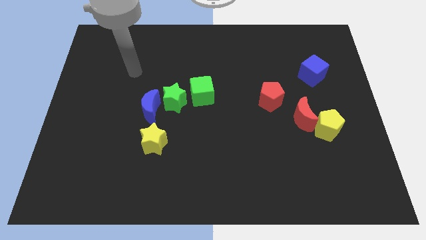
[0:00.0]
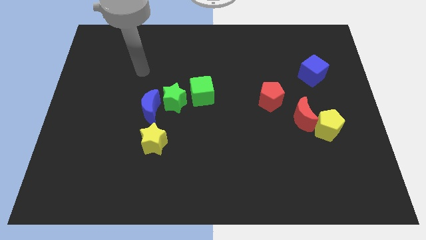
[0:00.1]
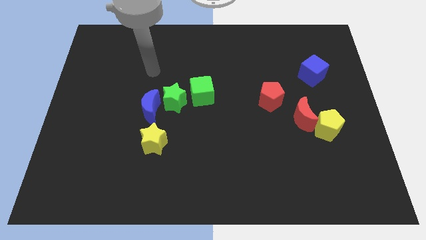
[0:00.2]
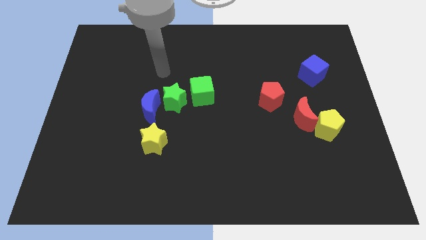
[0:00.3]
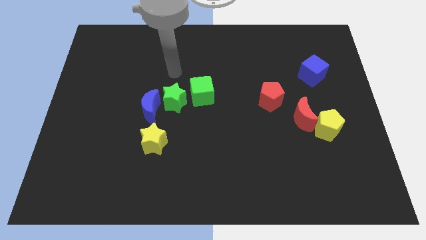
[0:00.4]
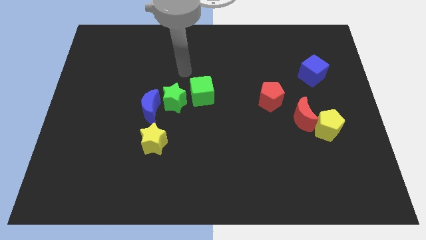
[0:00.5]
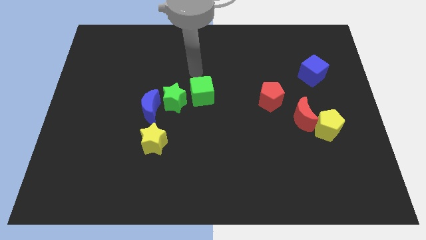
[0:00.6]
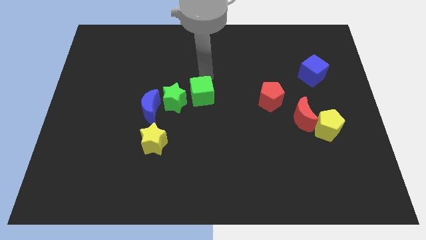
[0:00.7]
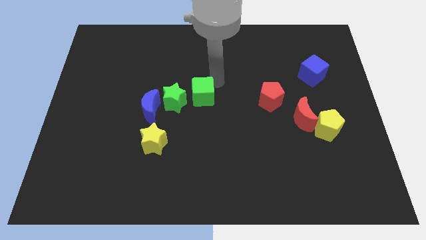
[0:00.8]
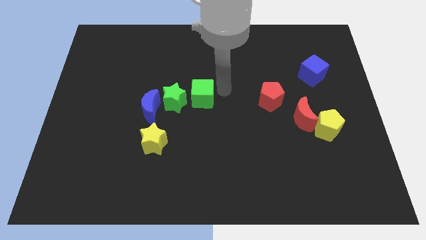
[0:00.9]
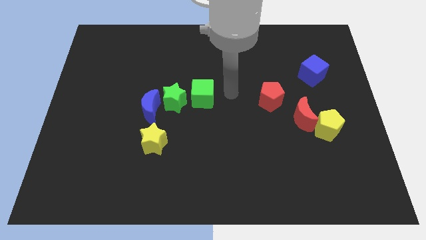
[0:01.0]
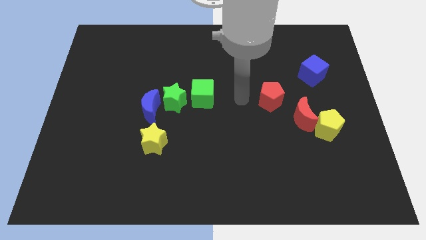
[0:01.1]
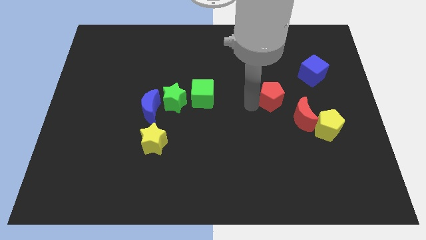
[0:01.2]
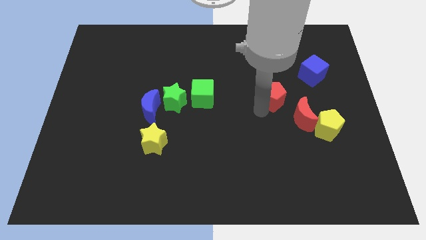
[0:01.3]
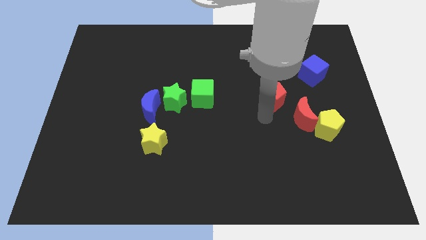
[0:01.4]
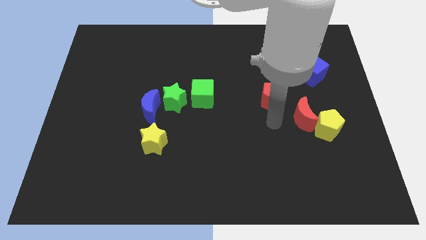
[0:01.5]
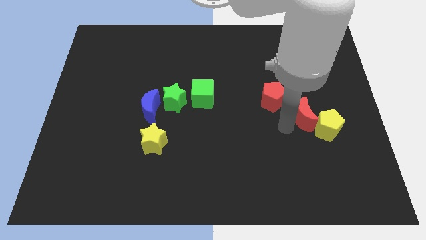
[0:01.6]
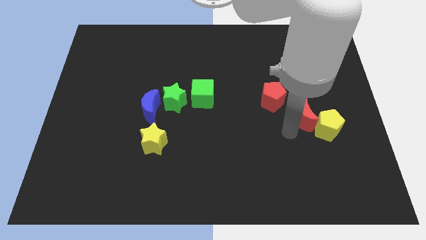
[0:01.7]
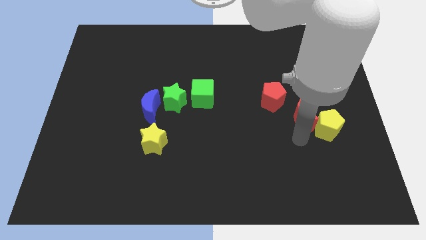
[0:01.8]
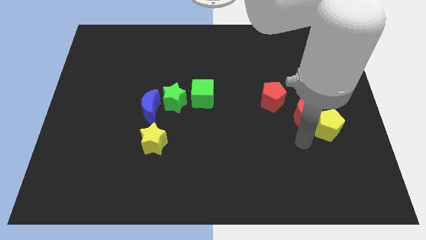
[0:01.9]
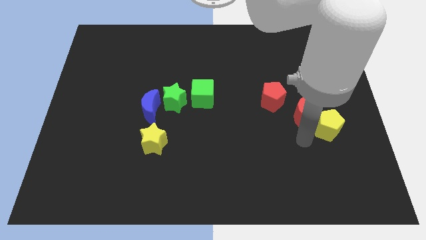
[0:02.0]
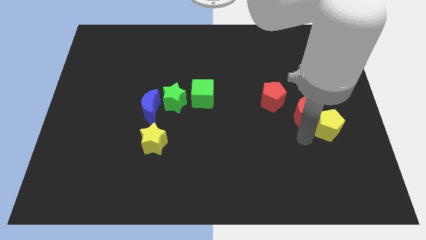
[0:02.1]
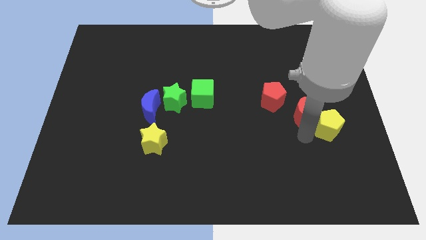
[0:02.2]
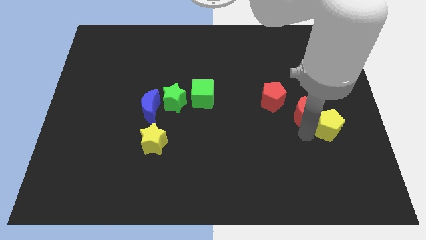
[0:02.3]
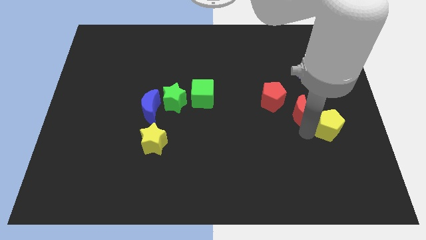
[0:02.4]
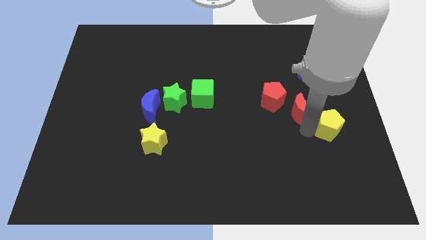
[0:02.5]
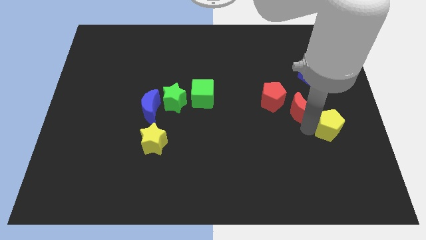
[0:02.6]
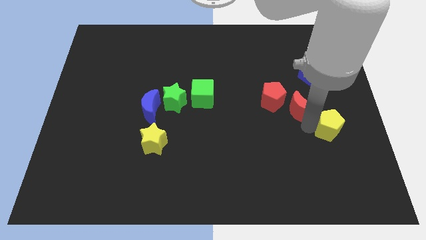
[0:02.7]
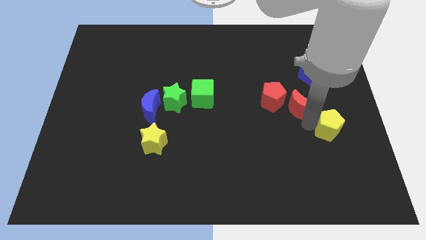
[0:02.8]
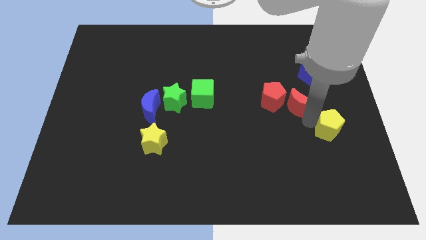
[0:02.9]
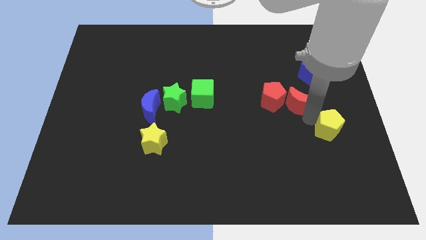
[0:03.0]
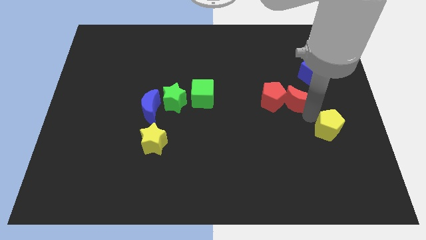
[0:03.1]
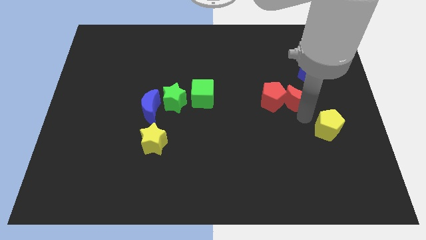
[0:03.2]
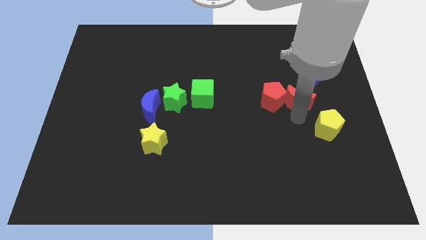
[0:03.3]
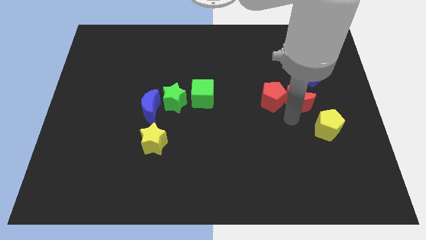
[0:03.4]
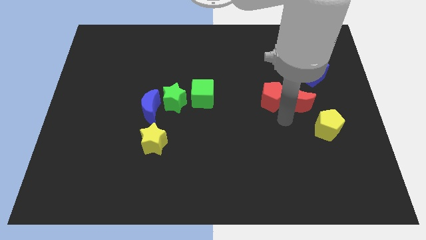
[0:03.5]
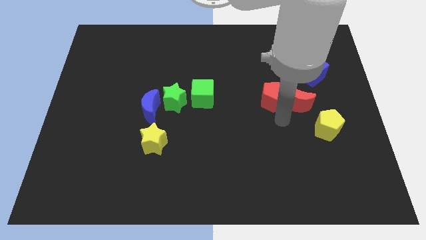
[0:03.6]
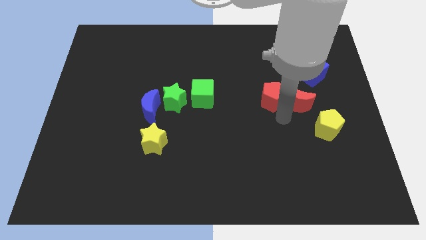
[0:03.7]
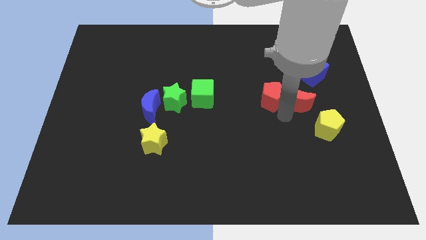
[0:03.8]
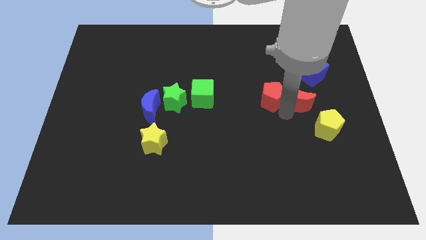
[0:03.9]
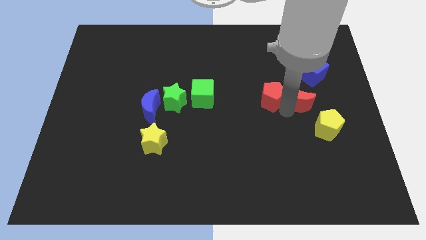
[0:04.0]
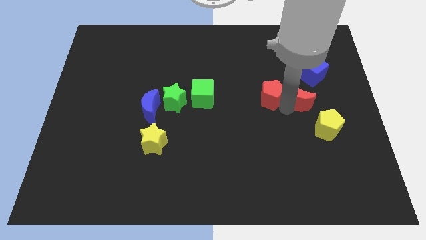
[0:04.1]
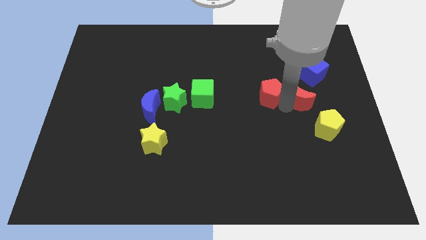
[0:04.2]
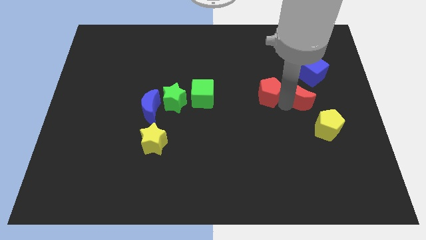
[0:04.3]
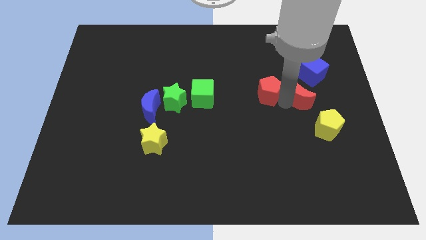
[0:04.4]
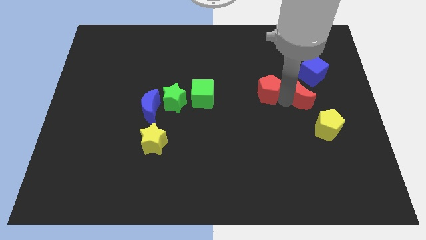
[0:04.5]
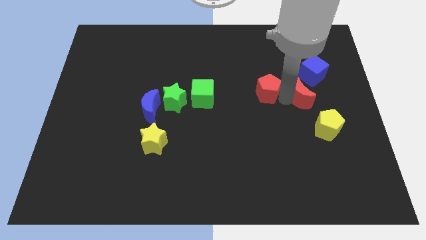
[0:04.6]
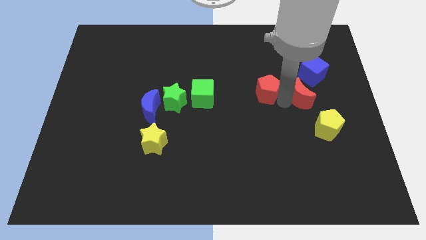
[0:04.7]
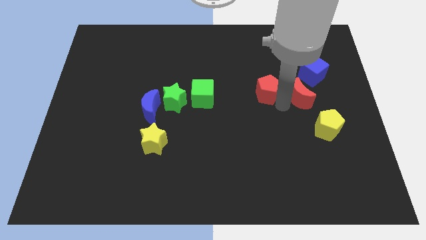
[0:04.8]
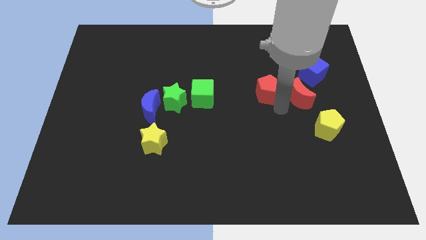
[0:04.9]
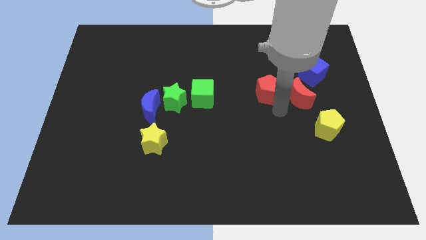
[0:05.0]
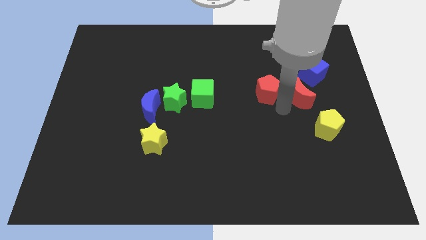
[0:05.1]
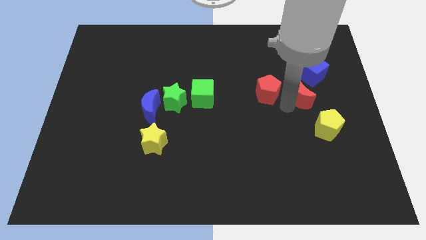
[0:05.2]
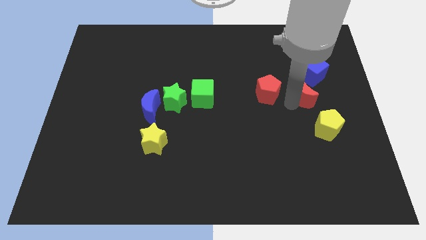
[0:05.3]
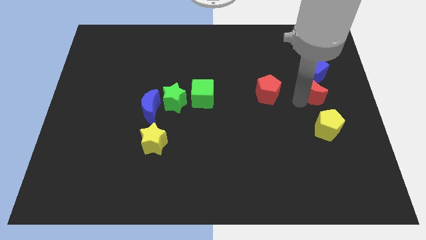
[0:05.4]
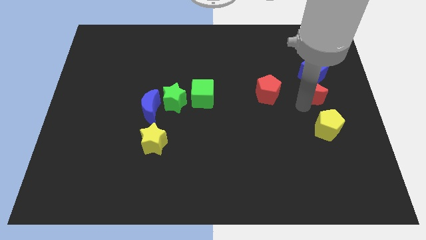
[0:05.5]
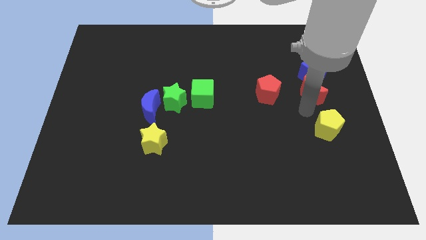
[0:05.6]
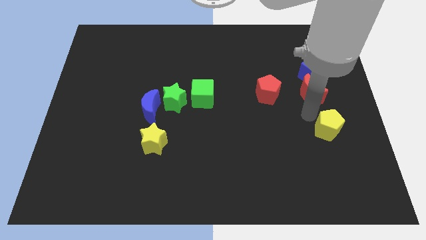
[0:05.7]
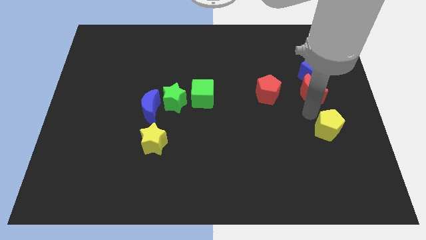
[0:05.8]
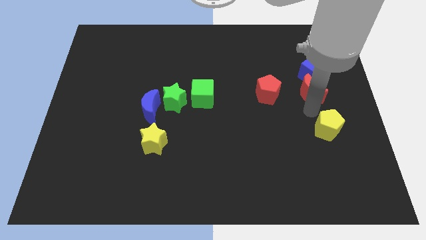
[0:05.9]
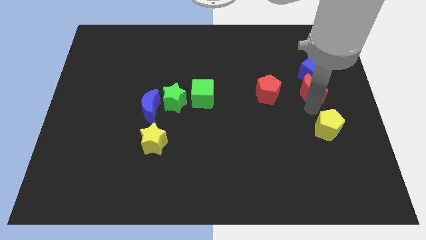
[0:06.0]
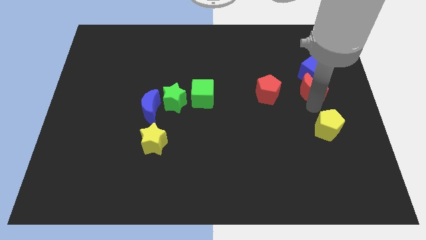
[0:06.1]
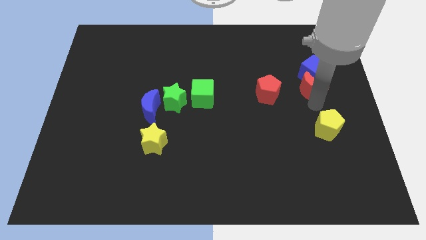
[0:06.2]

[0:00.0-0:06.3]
move the red moon close to the blue cube

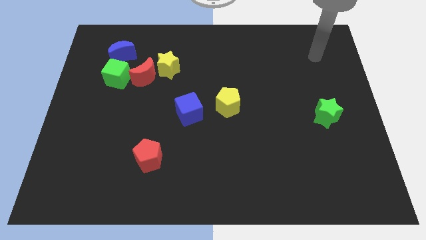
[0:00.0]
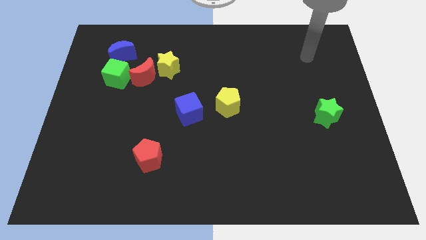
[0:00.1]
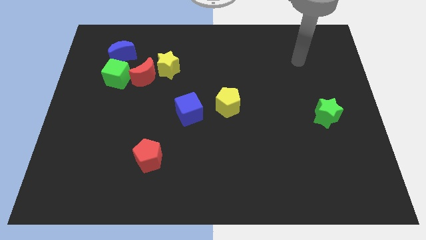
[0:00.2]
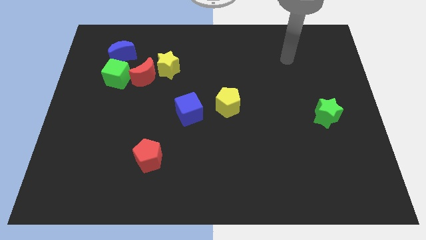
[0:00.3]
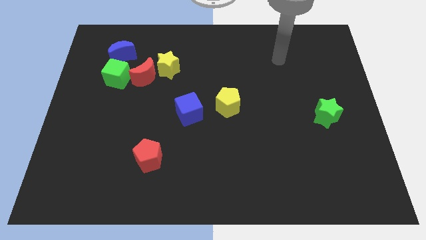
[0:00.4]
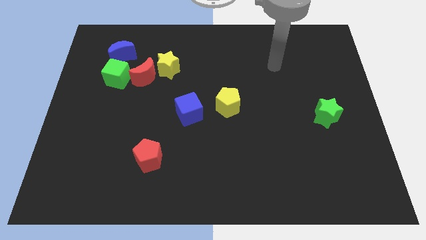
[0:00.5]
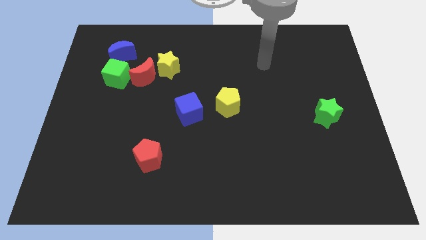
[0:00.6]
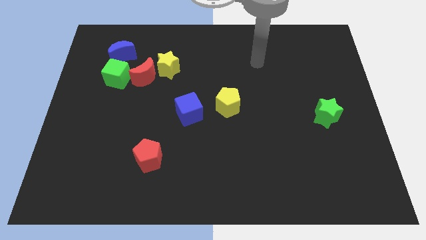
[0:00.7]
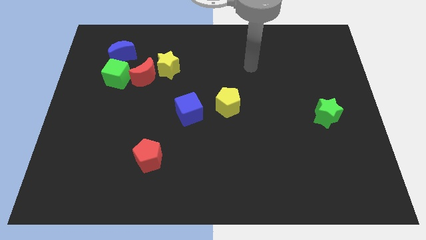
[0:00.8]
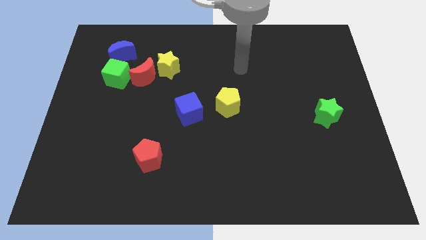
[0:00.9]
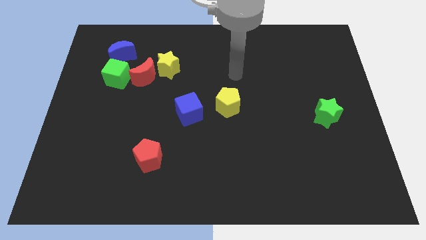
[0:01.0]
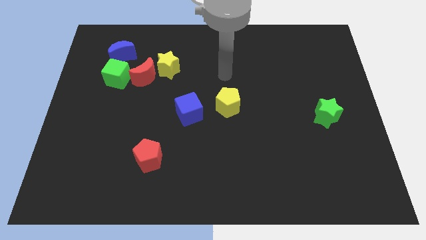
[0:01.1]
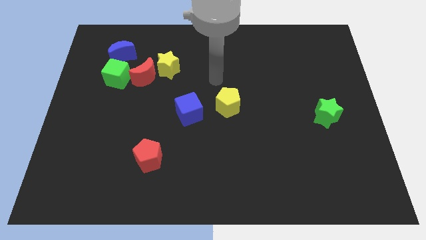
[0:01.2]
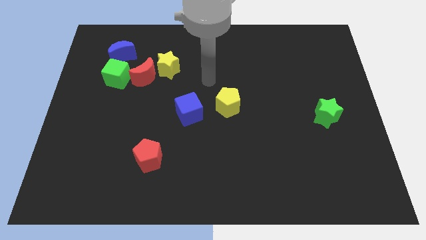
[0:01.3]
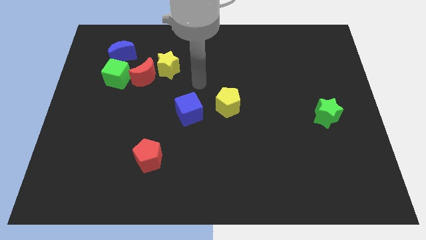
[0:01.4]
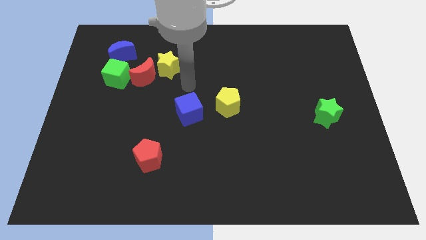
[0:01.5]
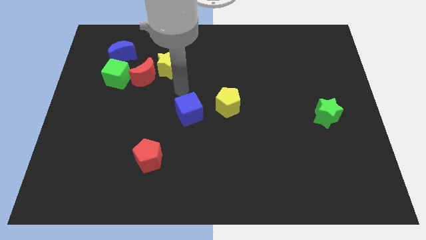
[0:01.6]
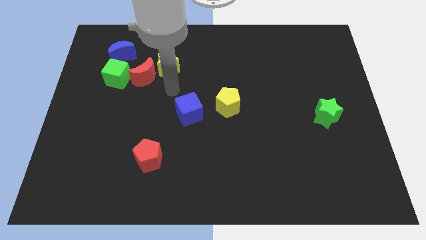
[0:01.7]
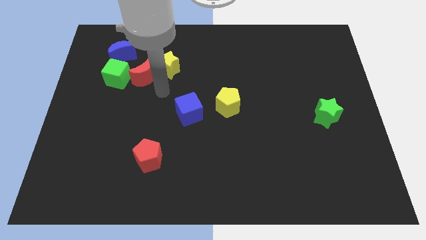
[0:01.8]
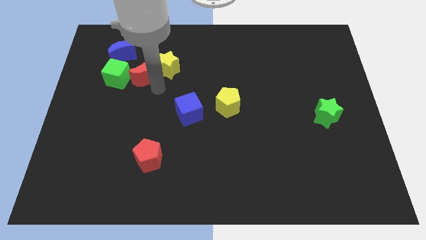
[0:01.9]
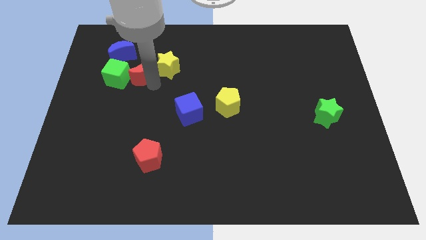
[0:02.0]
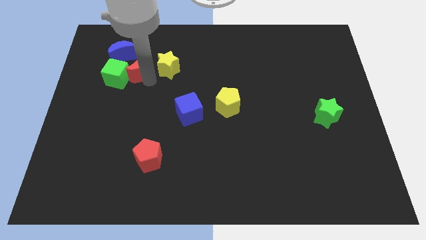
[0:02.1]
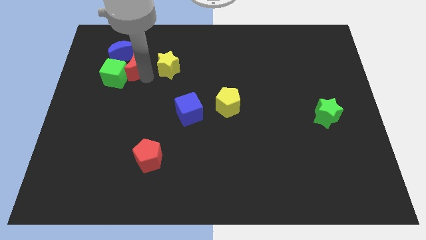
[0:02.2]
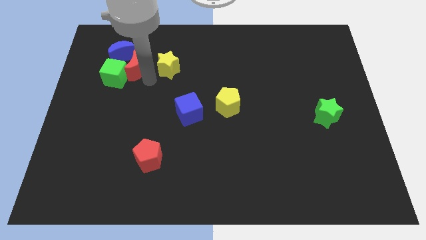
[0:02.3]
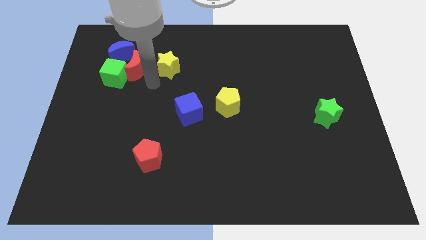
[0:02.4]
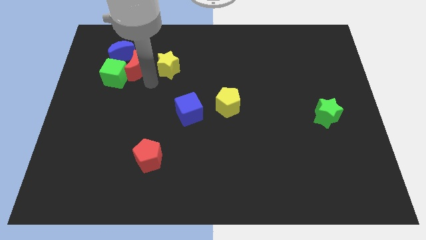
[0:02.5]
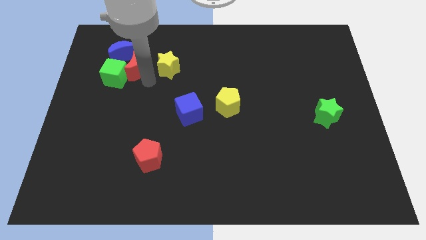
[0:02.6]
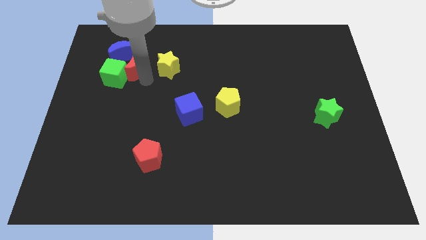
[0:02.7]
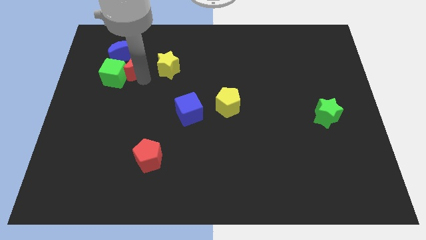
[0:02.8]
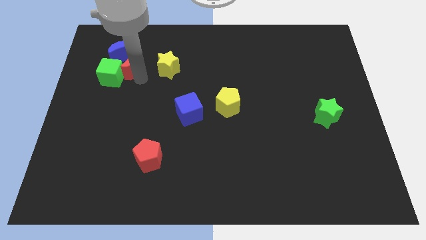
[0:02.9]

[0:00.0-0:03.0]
put the red moon towards the blue moon
